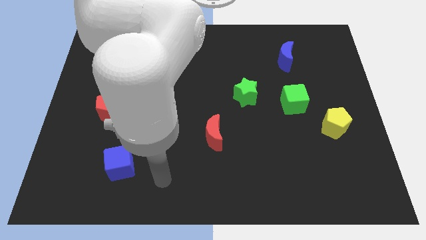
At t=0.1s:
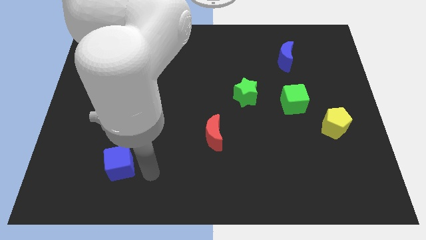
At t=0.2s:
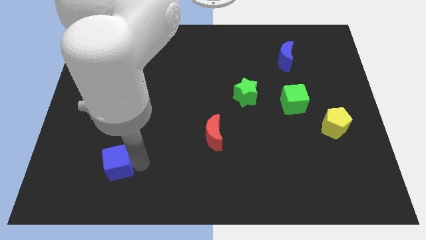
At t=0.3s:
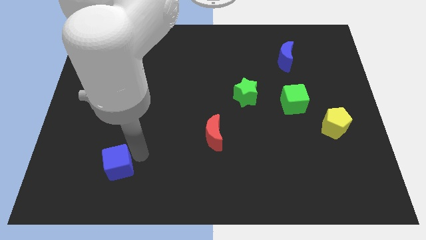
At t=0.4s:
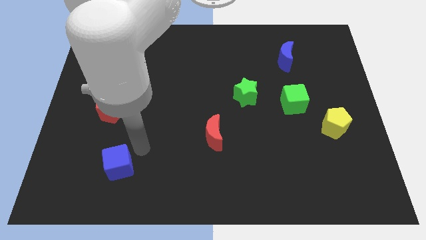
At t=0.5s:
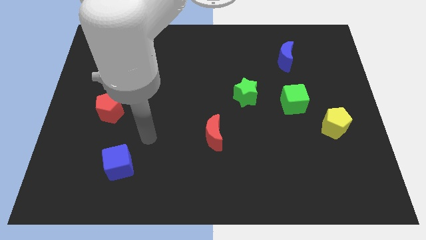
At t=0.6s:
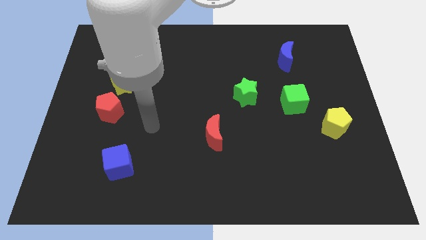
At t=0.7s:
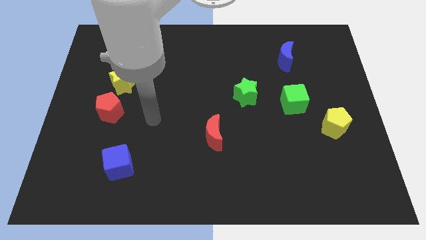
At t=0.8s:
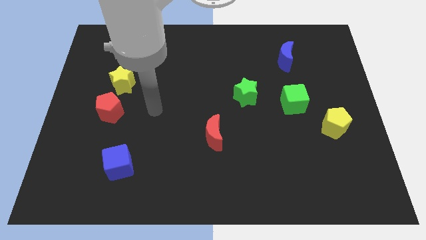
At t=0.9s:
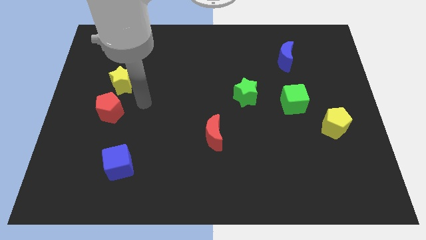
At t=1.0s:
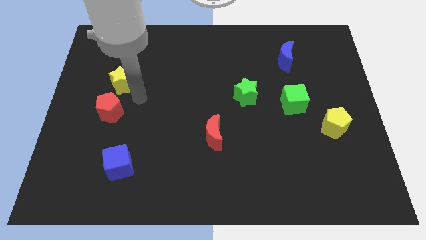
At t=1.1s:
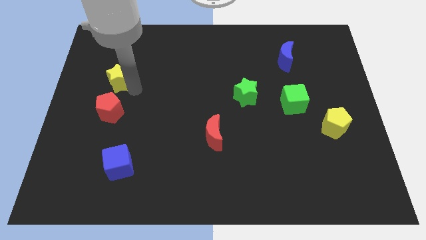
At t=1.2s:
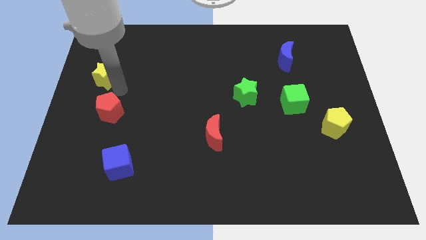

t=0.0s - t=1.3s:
separate the red pentagon from the yellow star

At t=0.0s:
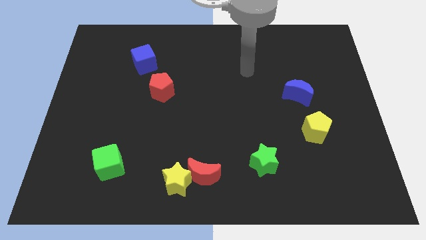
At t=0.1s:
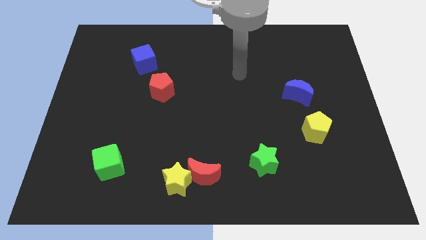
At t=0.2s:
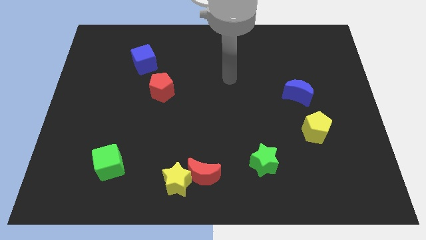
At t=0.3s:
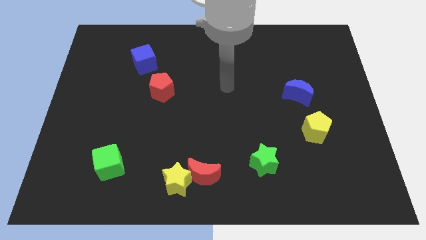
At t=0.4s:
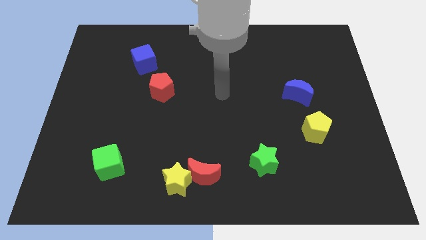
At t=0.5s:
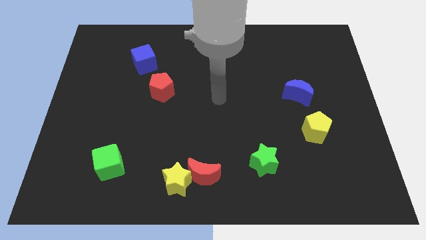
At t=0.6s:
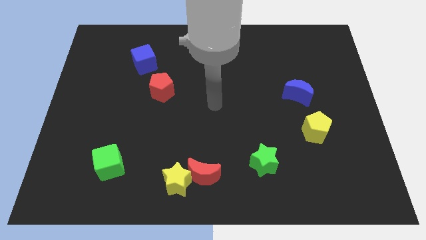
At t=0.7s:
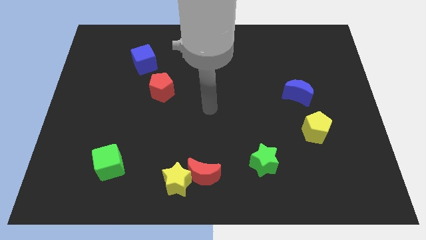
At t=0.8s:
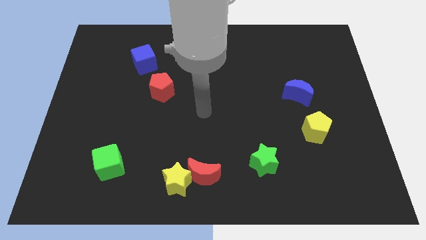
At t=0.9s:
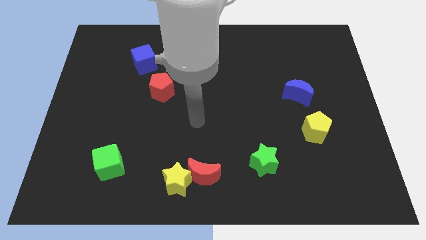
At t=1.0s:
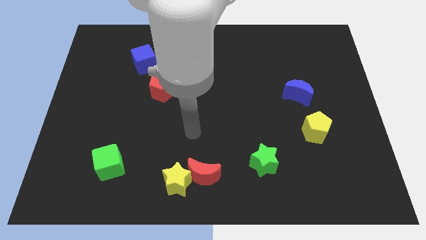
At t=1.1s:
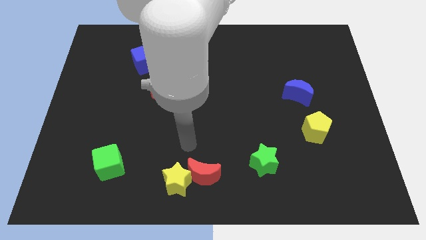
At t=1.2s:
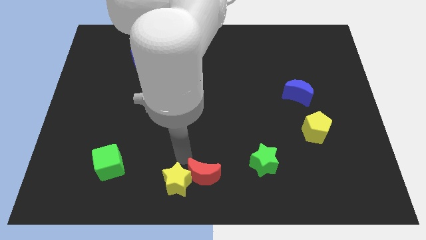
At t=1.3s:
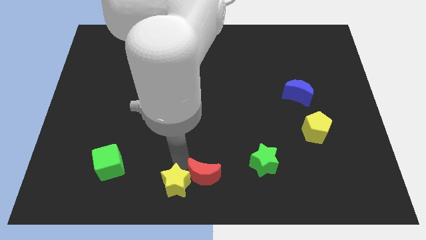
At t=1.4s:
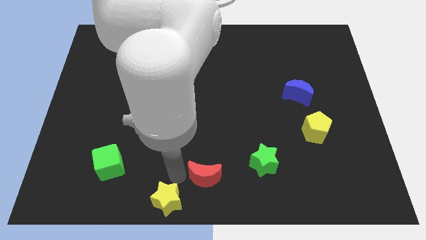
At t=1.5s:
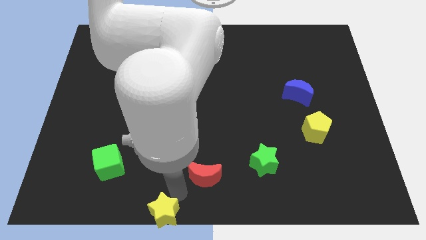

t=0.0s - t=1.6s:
move the red moon away from the yellow star

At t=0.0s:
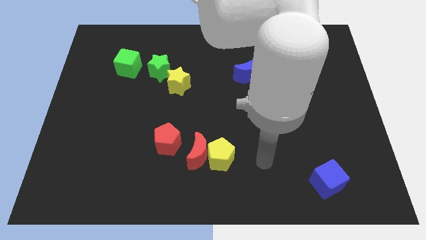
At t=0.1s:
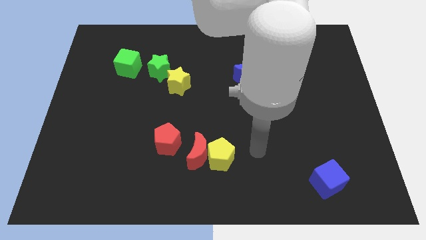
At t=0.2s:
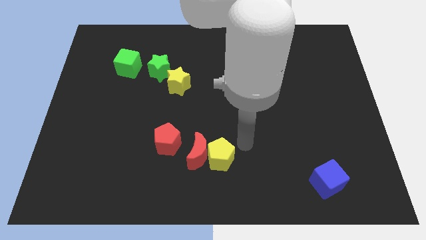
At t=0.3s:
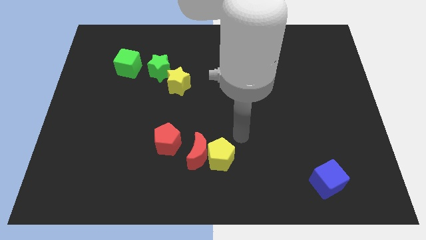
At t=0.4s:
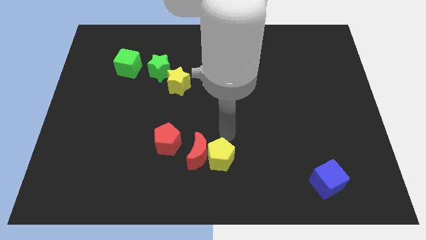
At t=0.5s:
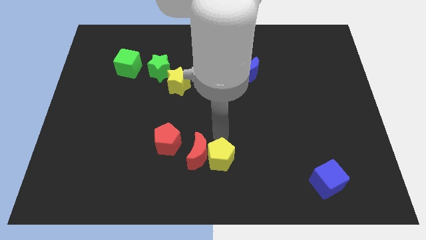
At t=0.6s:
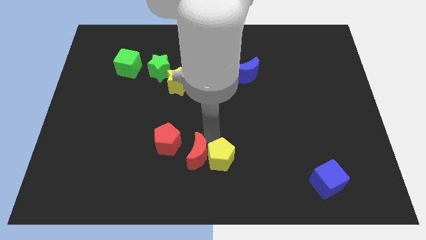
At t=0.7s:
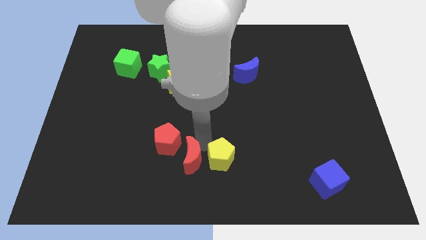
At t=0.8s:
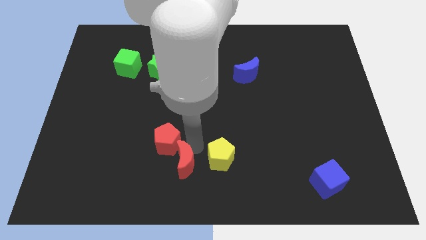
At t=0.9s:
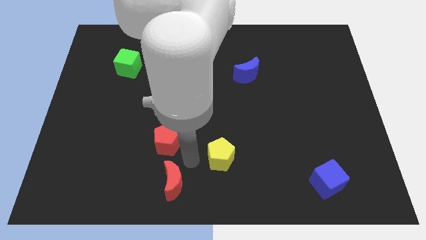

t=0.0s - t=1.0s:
separate the yellow pentagon from the red moon

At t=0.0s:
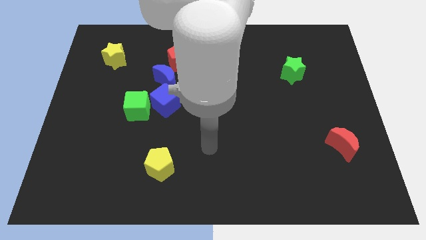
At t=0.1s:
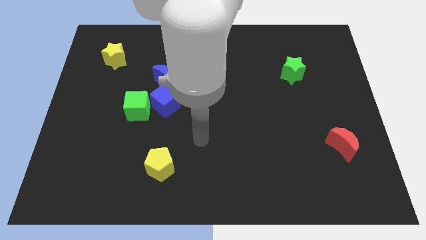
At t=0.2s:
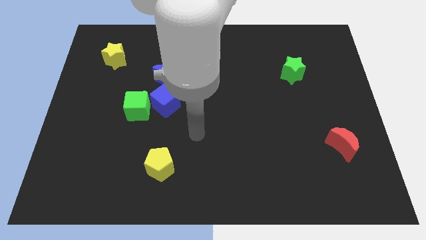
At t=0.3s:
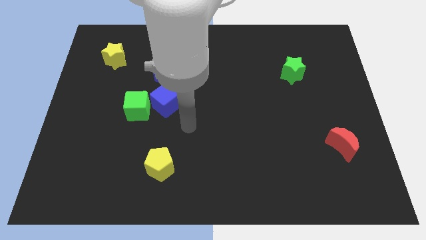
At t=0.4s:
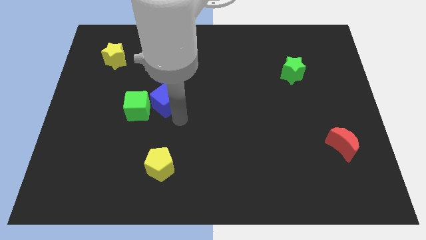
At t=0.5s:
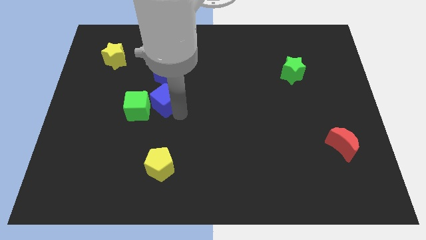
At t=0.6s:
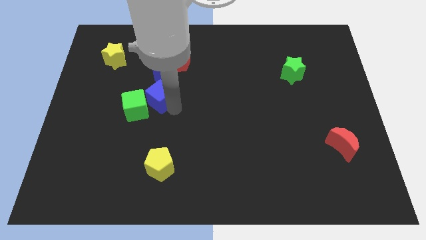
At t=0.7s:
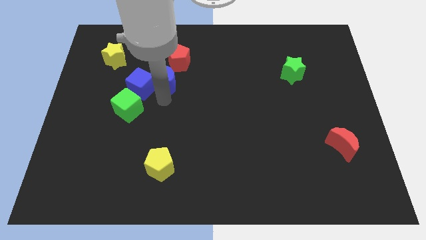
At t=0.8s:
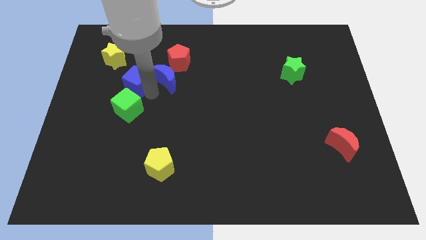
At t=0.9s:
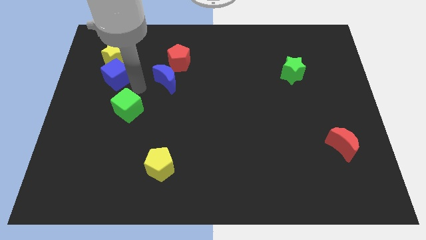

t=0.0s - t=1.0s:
move the green cube away from the blue cube

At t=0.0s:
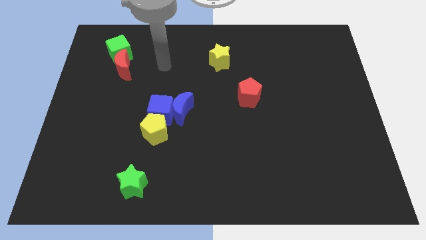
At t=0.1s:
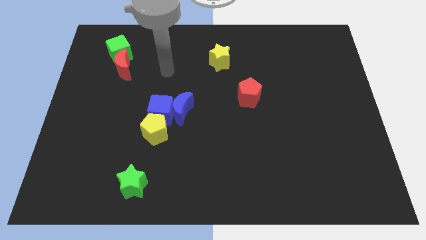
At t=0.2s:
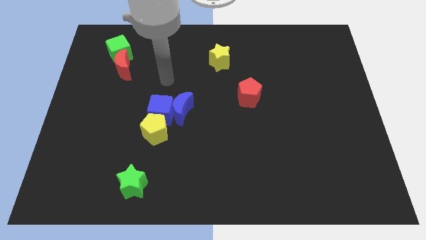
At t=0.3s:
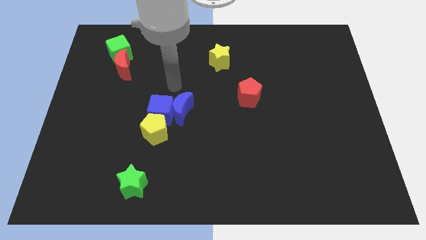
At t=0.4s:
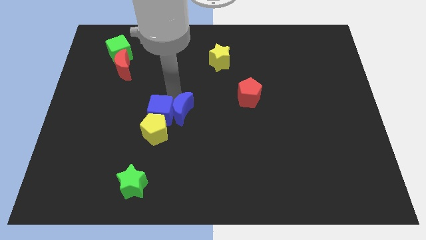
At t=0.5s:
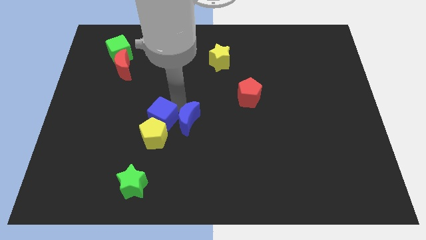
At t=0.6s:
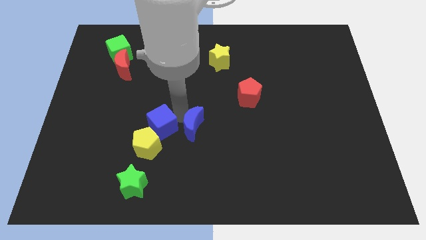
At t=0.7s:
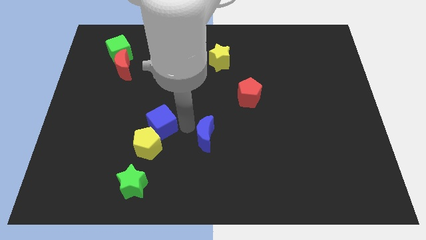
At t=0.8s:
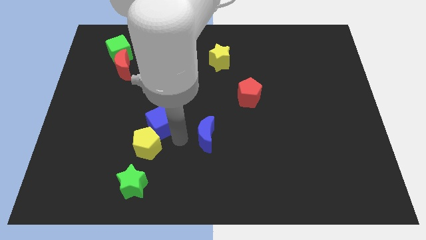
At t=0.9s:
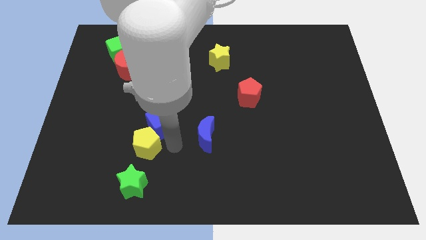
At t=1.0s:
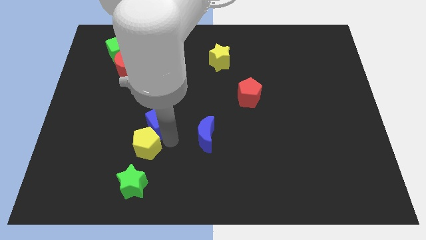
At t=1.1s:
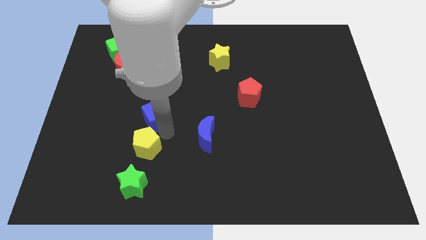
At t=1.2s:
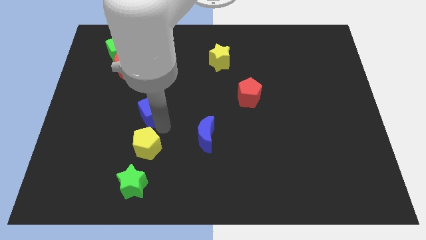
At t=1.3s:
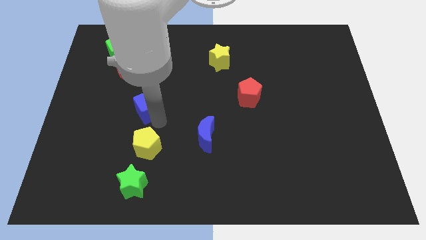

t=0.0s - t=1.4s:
move the blue cube away from the blue moon and yellow pentagon

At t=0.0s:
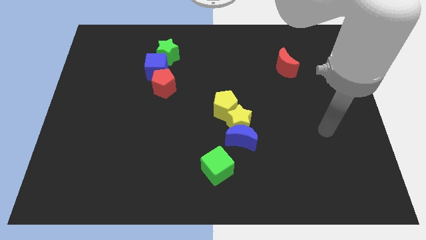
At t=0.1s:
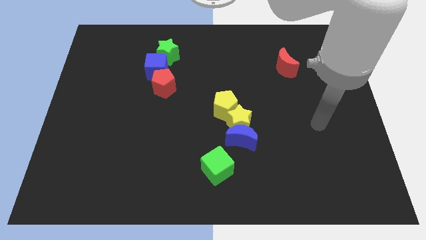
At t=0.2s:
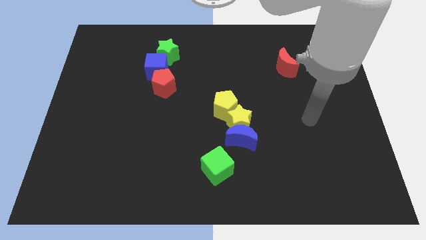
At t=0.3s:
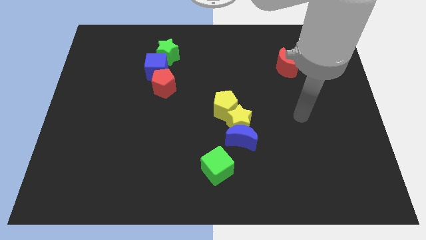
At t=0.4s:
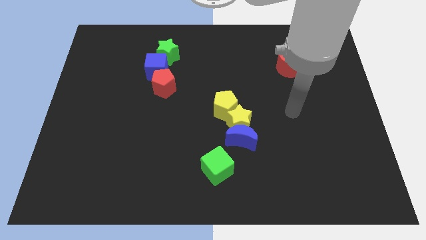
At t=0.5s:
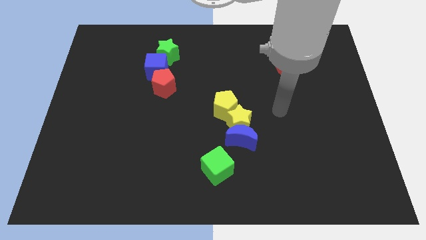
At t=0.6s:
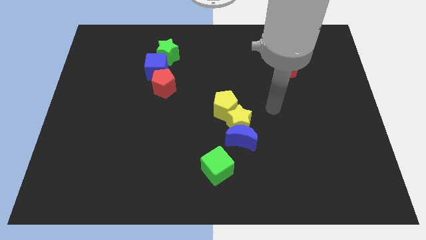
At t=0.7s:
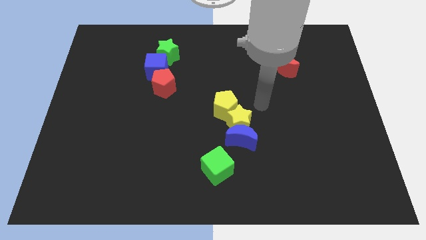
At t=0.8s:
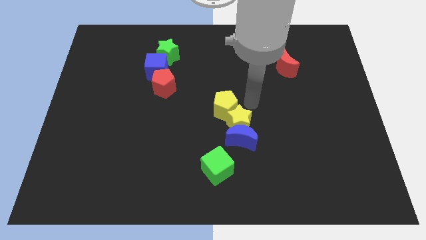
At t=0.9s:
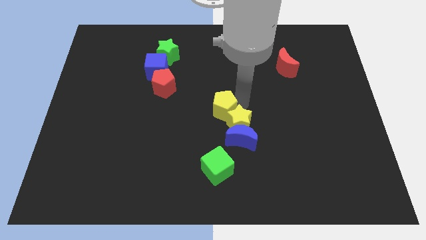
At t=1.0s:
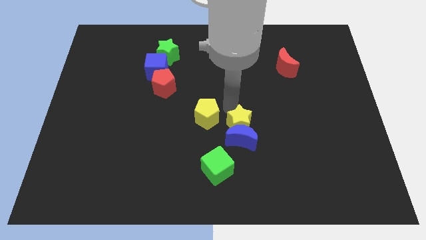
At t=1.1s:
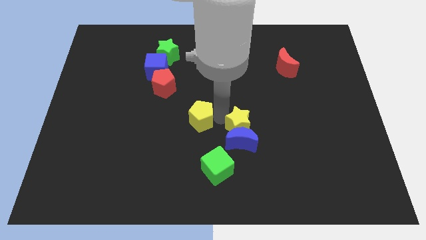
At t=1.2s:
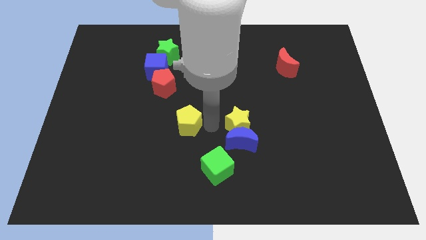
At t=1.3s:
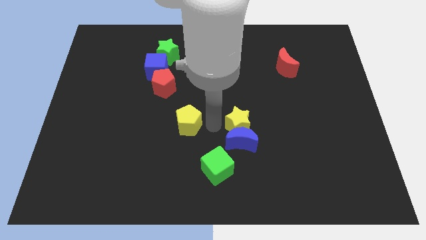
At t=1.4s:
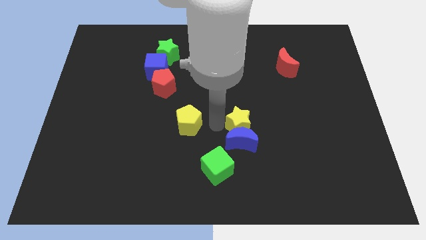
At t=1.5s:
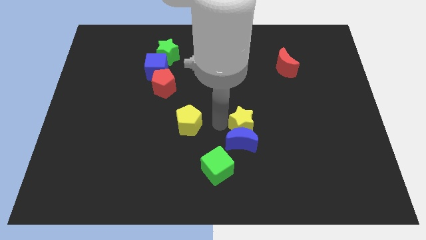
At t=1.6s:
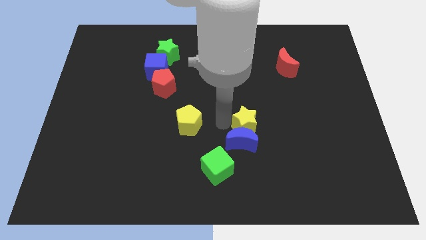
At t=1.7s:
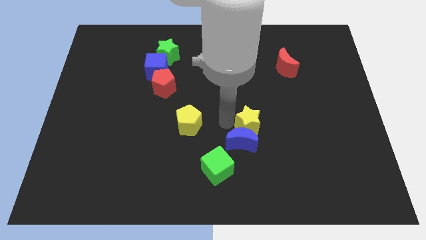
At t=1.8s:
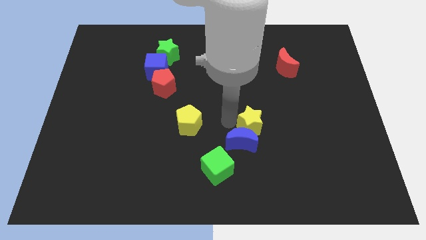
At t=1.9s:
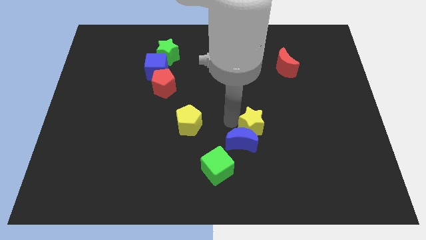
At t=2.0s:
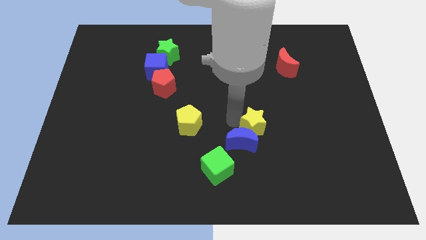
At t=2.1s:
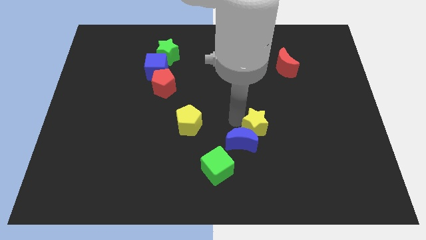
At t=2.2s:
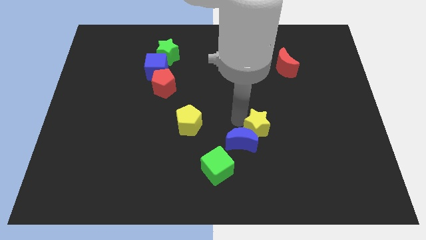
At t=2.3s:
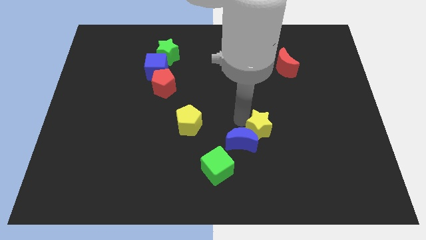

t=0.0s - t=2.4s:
separate the yellow star from the blue moon and yellow pentagon

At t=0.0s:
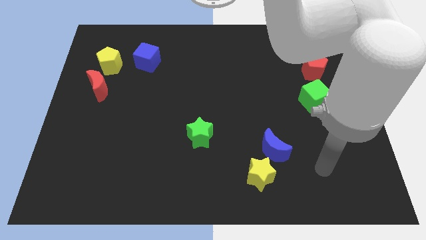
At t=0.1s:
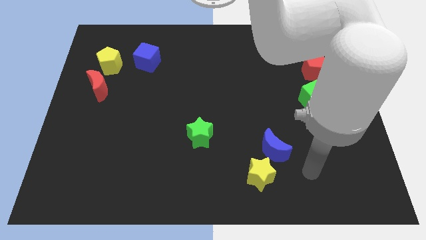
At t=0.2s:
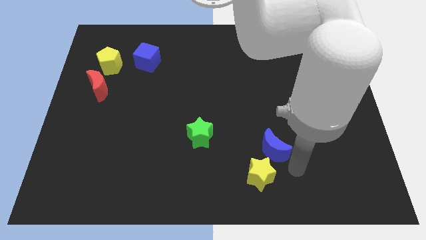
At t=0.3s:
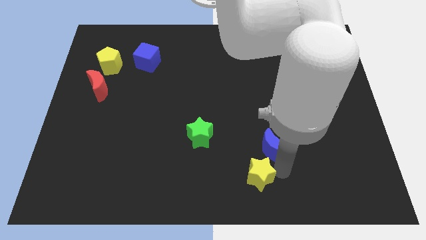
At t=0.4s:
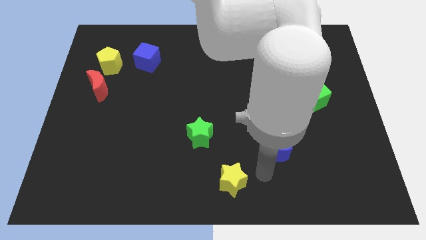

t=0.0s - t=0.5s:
separate the blue moon from the yellow star
